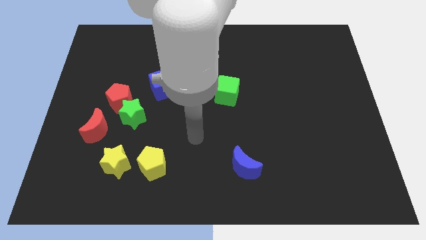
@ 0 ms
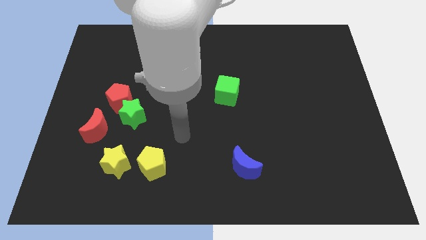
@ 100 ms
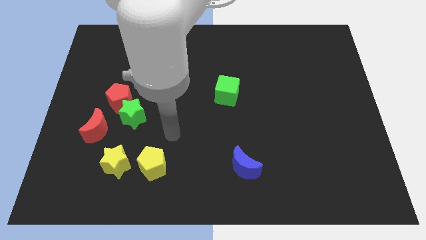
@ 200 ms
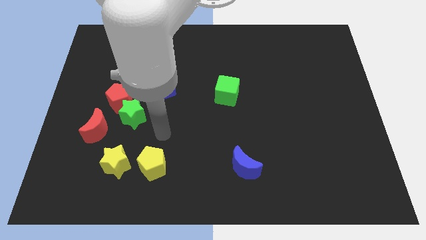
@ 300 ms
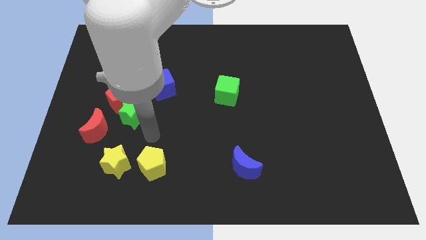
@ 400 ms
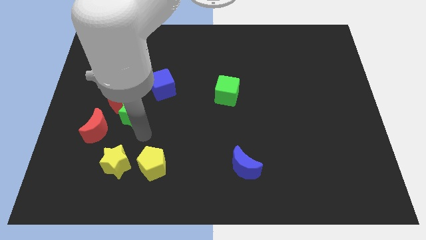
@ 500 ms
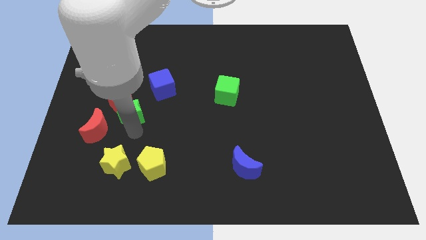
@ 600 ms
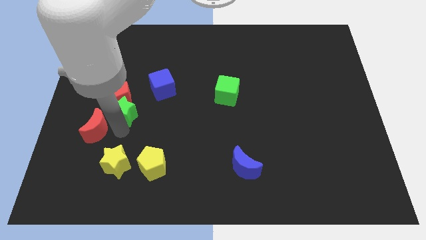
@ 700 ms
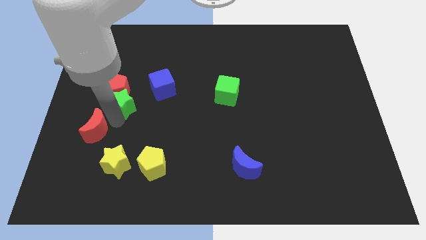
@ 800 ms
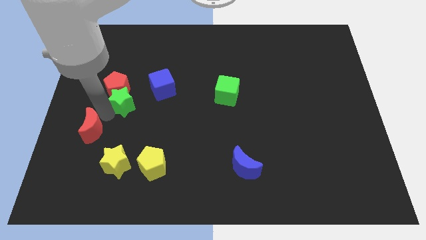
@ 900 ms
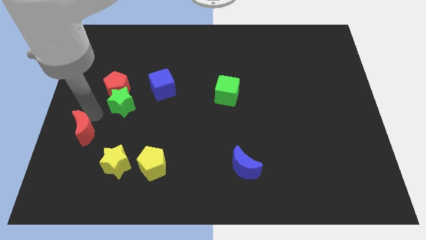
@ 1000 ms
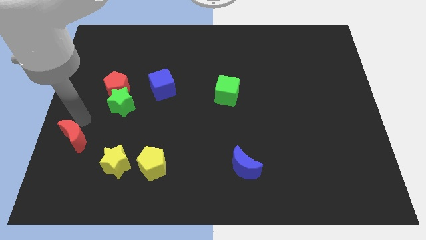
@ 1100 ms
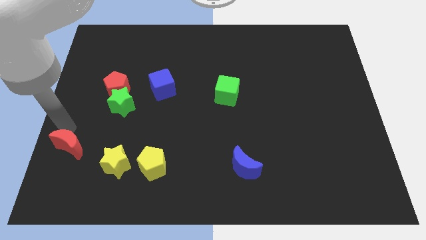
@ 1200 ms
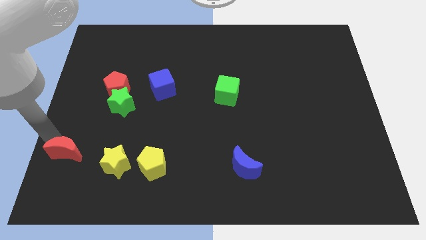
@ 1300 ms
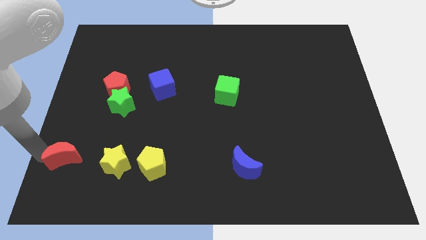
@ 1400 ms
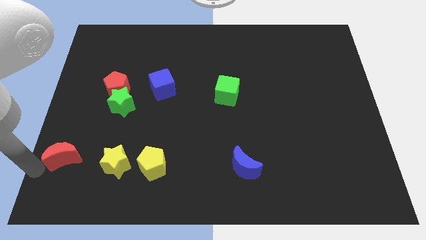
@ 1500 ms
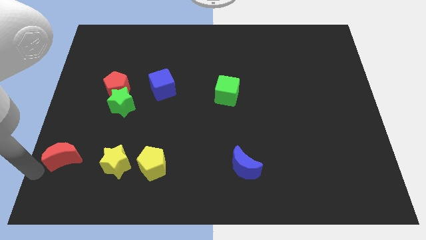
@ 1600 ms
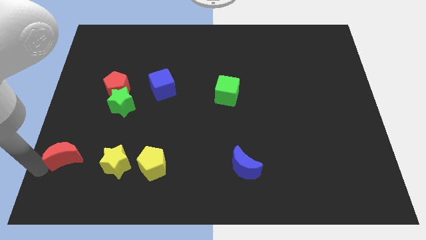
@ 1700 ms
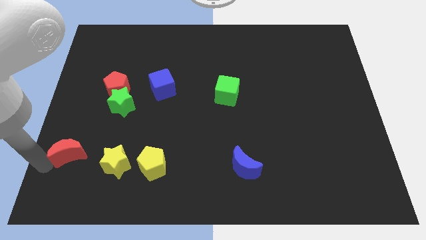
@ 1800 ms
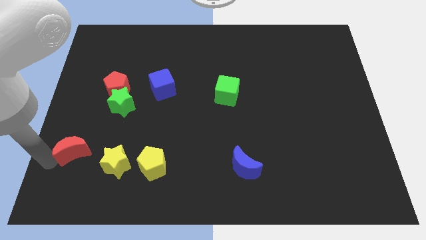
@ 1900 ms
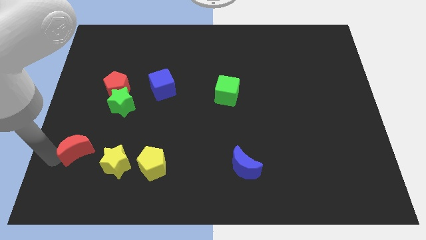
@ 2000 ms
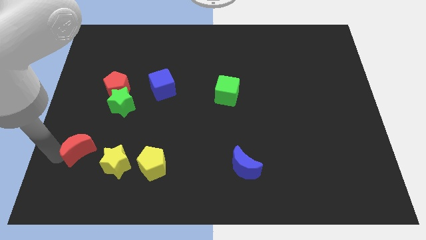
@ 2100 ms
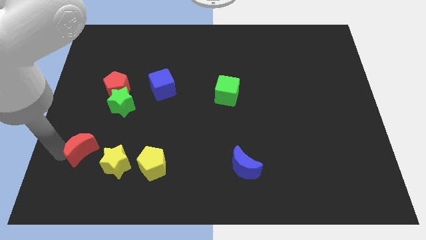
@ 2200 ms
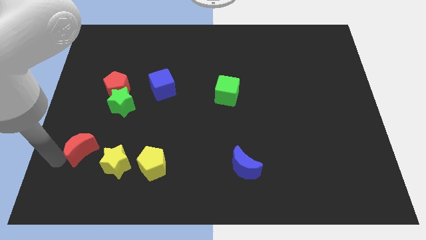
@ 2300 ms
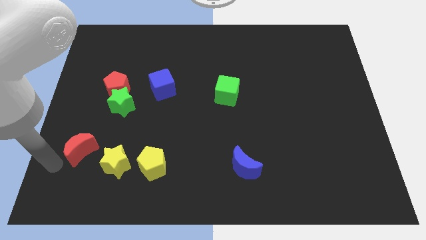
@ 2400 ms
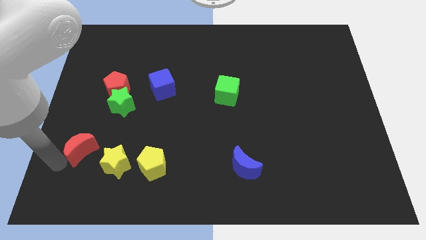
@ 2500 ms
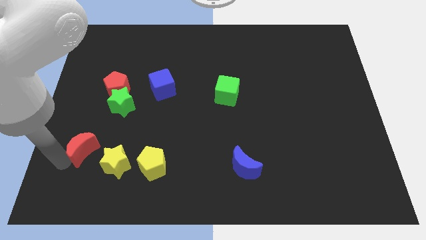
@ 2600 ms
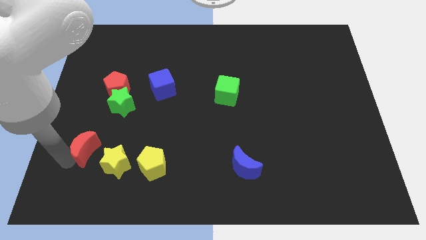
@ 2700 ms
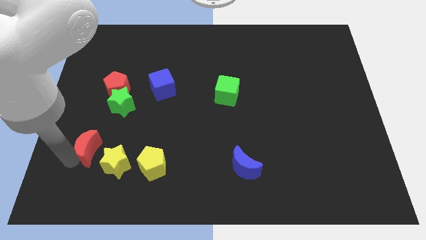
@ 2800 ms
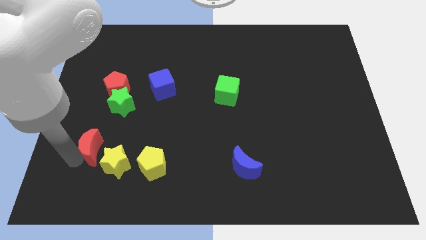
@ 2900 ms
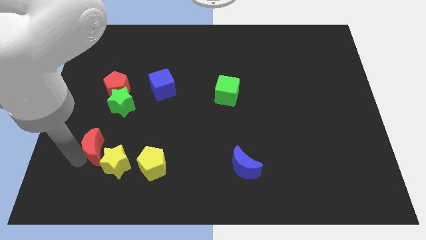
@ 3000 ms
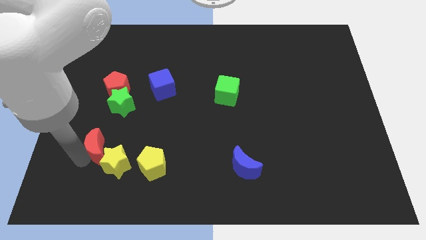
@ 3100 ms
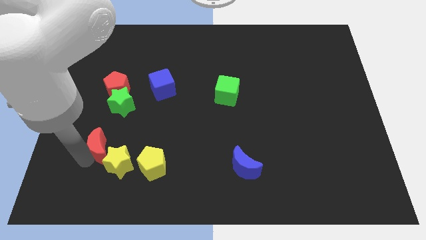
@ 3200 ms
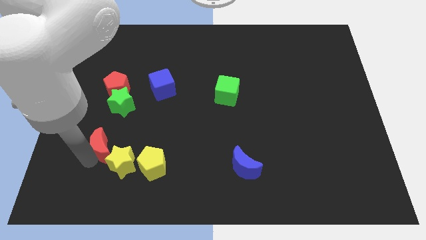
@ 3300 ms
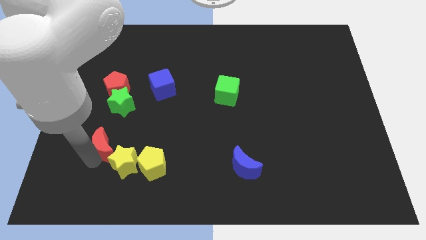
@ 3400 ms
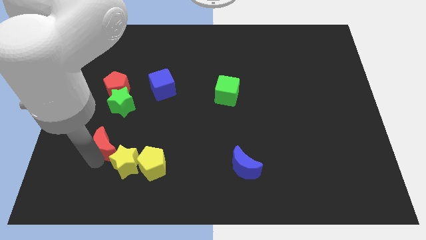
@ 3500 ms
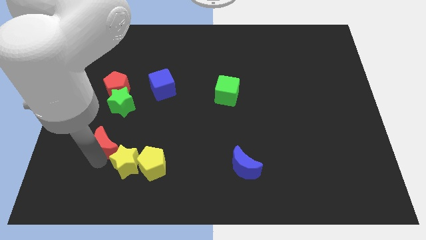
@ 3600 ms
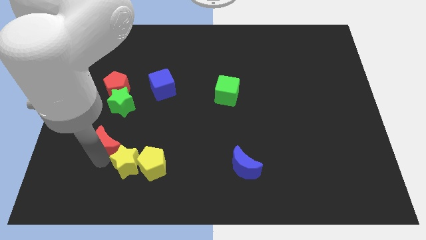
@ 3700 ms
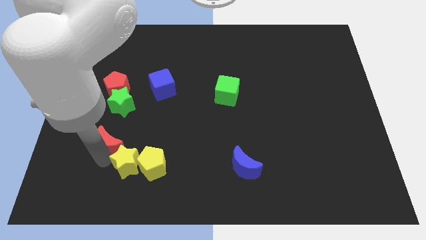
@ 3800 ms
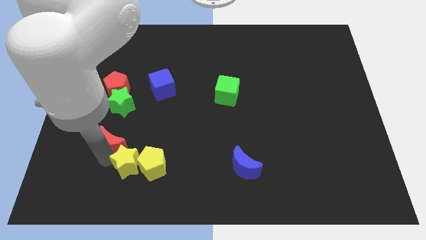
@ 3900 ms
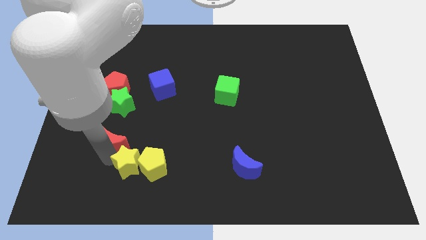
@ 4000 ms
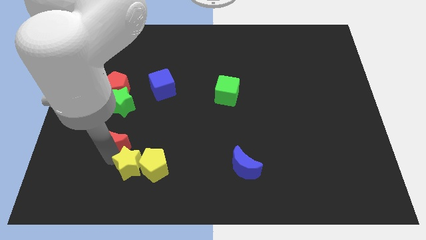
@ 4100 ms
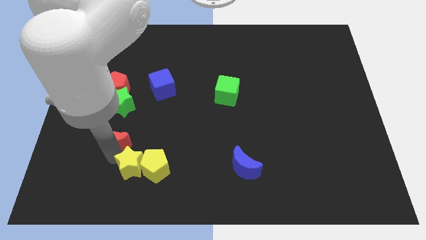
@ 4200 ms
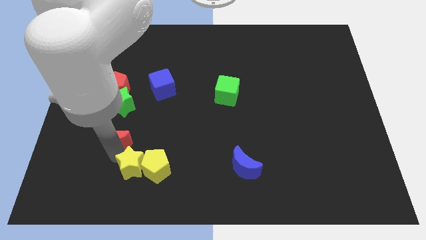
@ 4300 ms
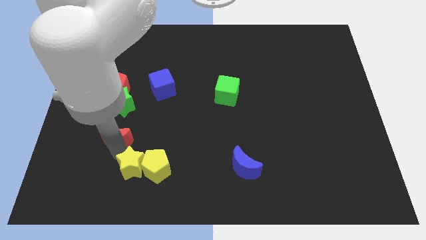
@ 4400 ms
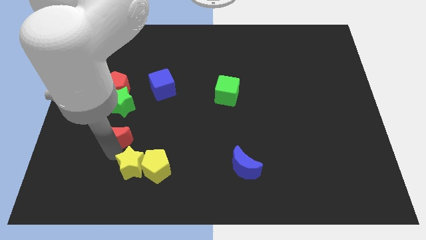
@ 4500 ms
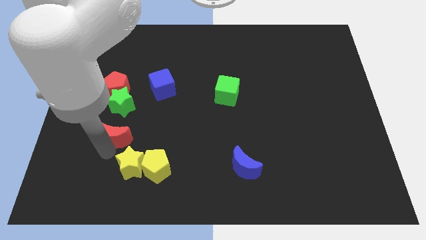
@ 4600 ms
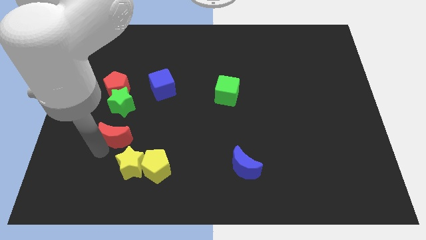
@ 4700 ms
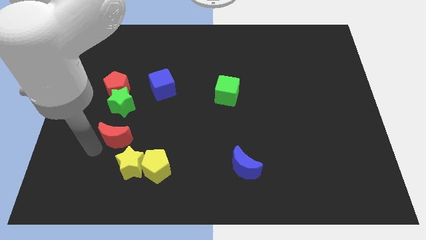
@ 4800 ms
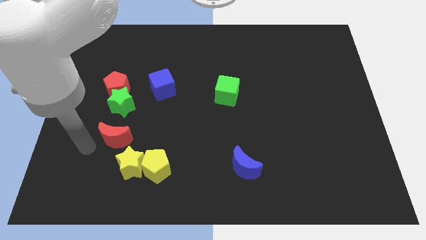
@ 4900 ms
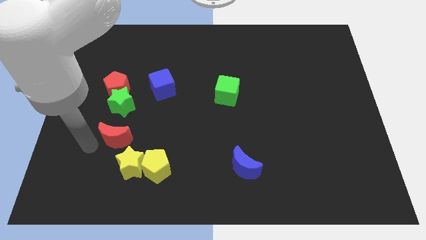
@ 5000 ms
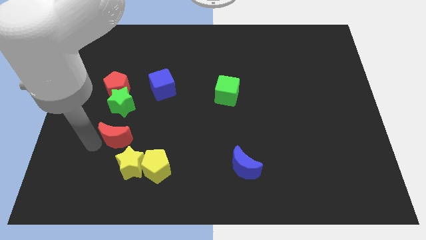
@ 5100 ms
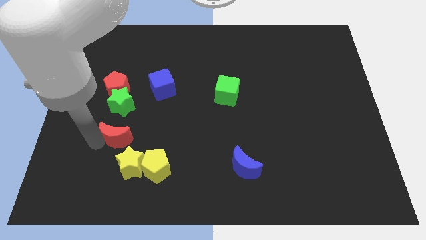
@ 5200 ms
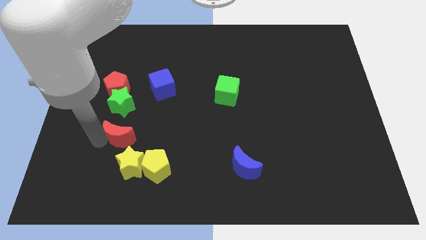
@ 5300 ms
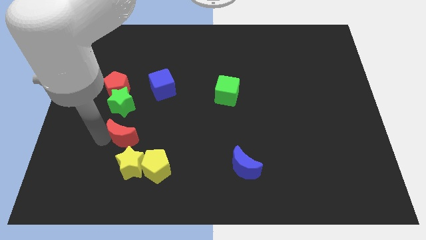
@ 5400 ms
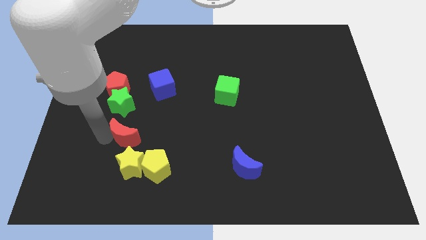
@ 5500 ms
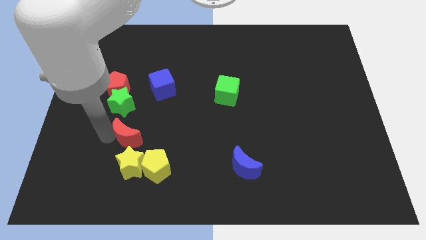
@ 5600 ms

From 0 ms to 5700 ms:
slightly move the red moon right

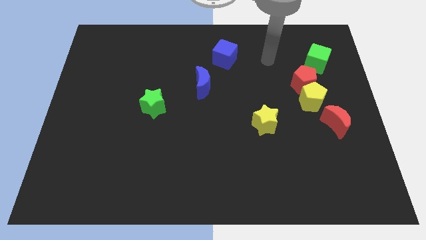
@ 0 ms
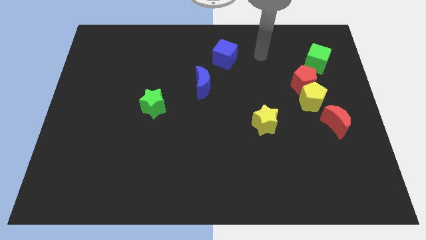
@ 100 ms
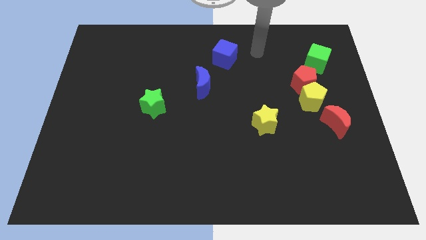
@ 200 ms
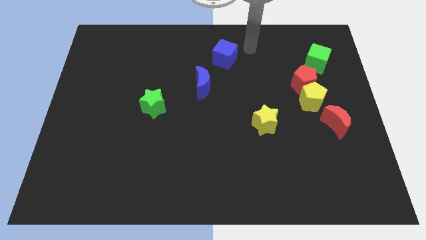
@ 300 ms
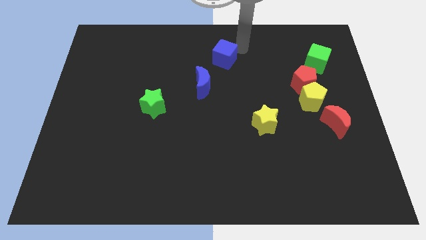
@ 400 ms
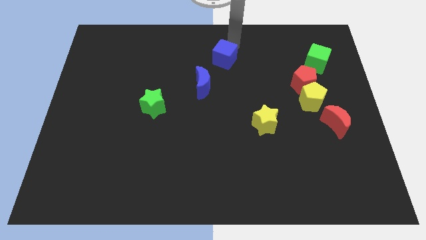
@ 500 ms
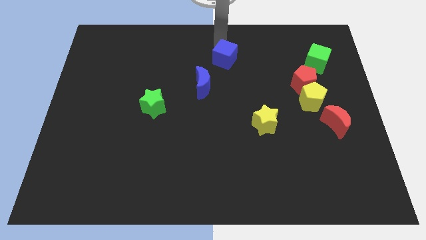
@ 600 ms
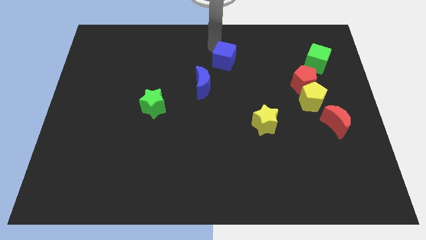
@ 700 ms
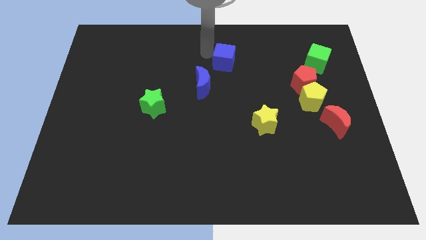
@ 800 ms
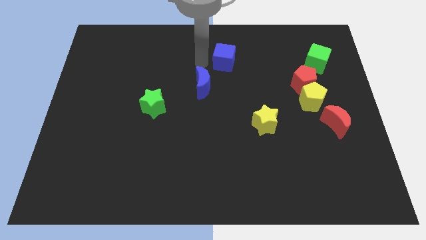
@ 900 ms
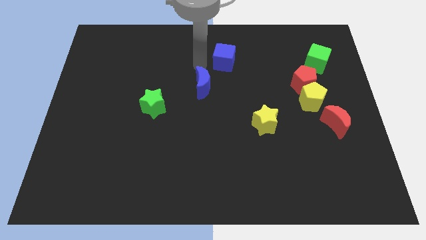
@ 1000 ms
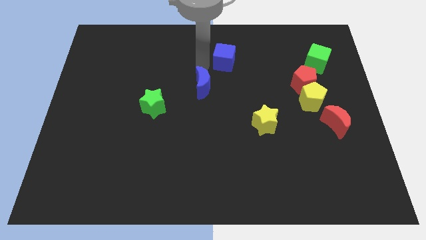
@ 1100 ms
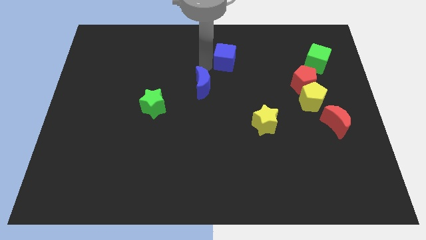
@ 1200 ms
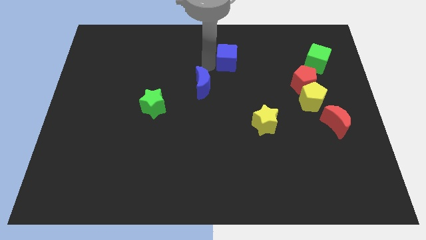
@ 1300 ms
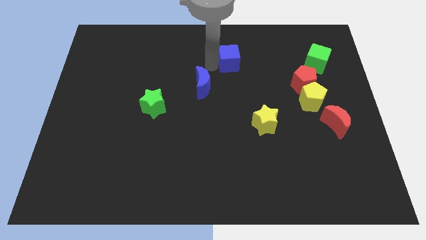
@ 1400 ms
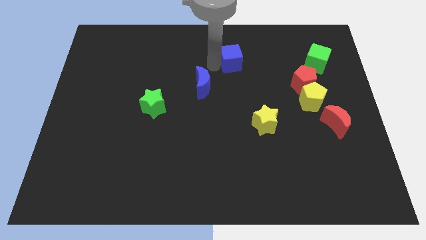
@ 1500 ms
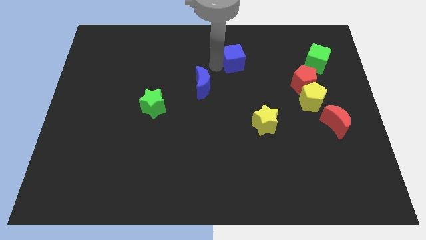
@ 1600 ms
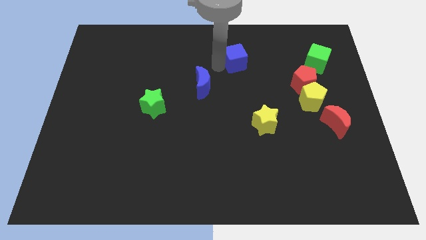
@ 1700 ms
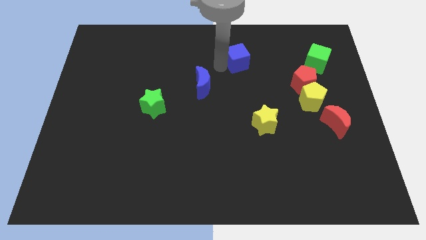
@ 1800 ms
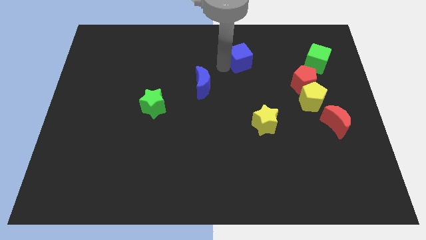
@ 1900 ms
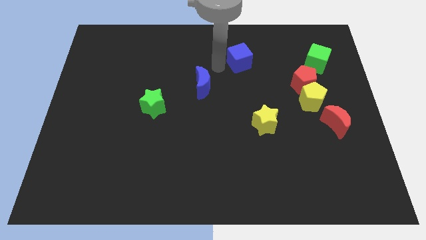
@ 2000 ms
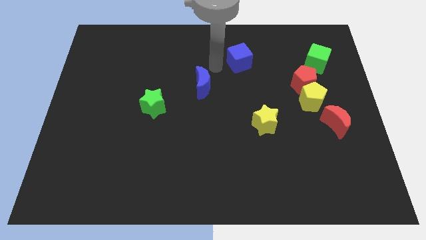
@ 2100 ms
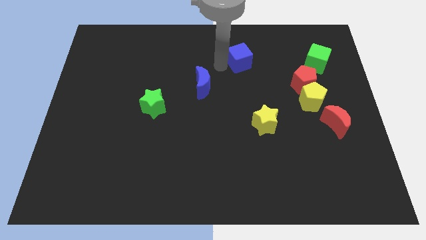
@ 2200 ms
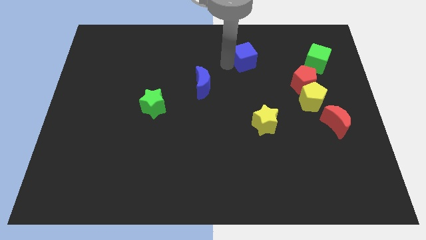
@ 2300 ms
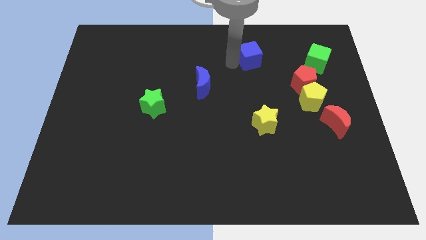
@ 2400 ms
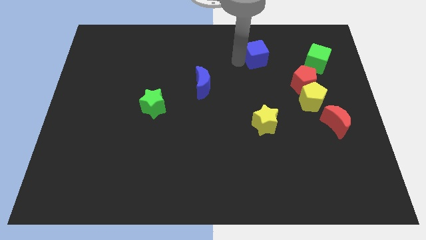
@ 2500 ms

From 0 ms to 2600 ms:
slightly push the blue cube to the right

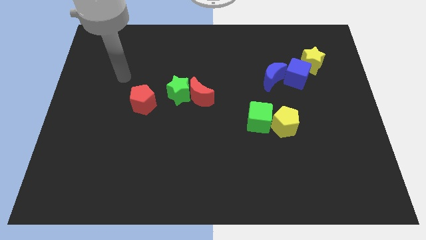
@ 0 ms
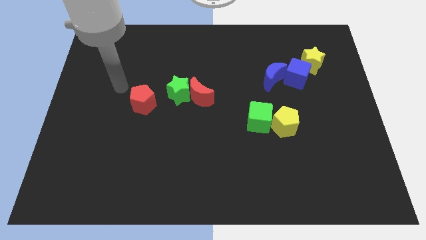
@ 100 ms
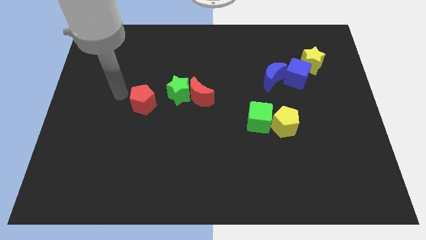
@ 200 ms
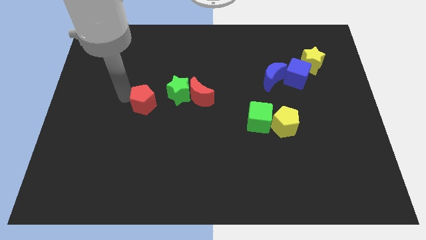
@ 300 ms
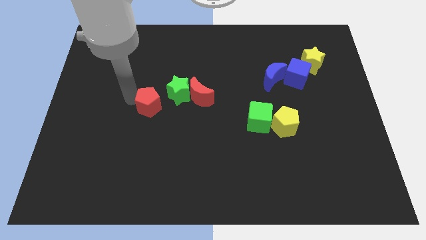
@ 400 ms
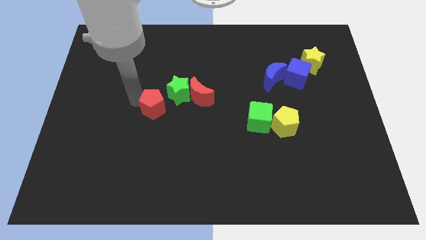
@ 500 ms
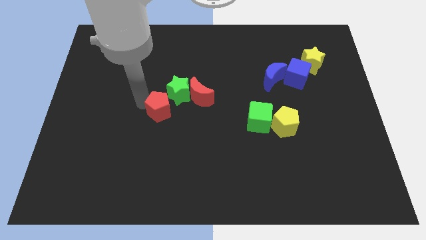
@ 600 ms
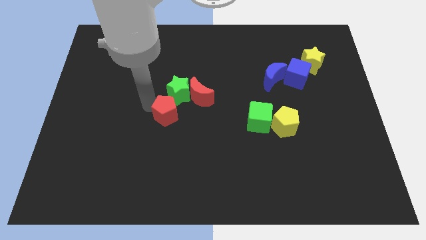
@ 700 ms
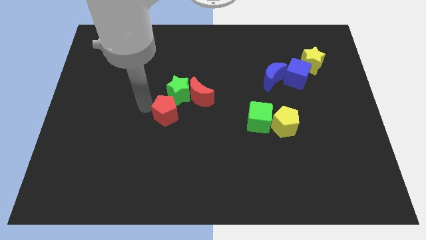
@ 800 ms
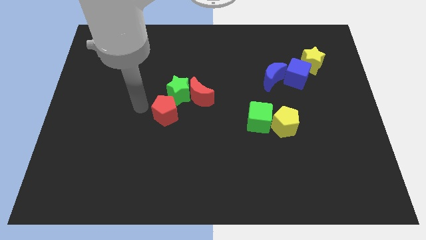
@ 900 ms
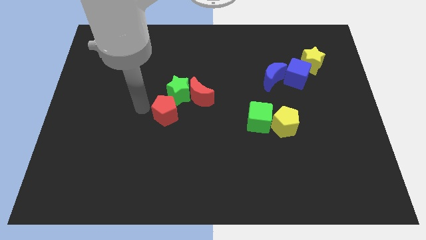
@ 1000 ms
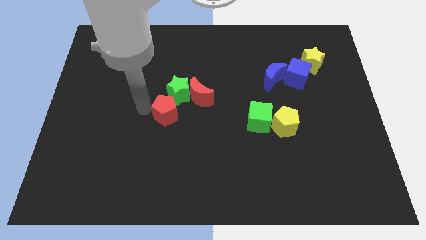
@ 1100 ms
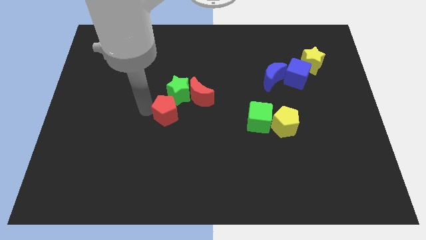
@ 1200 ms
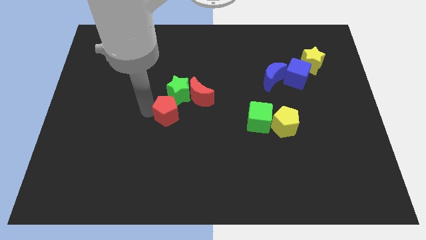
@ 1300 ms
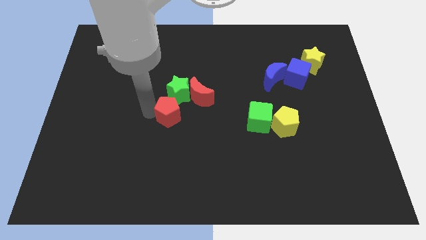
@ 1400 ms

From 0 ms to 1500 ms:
slightly move the red pentagon down and right diagonally
